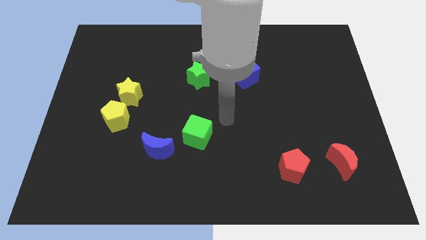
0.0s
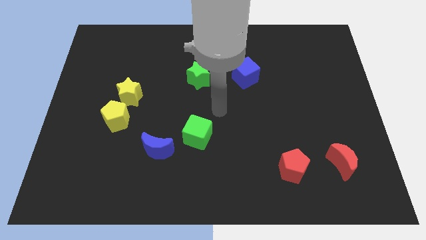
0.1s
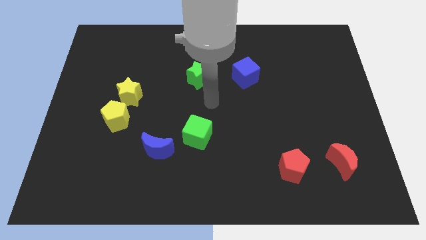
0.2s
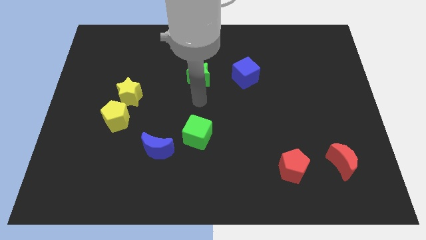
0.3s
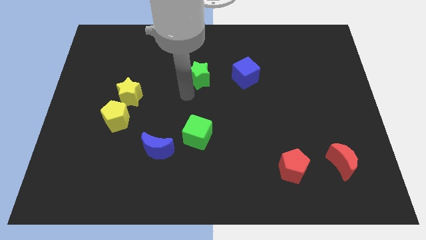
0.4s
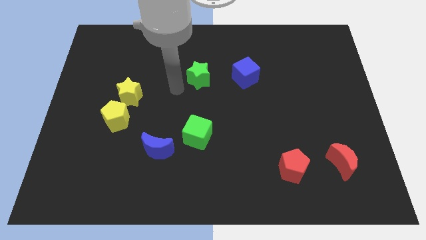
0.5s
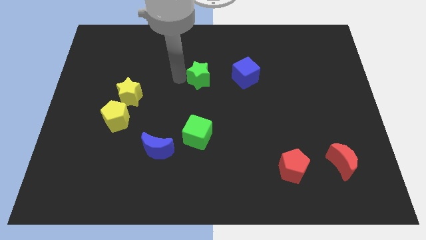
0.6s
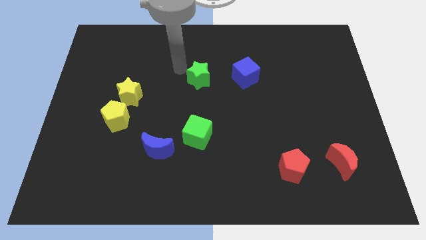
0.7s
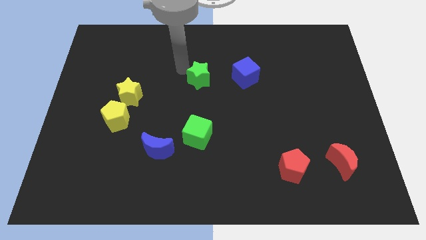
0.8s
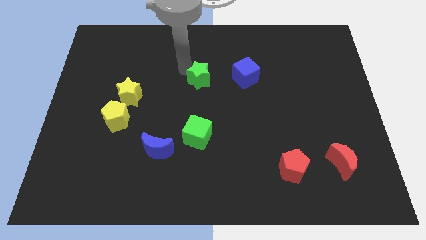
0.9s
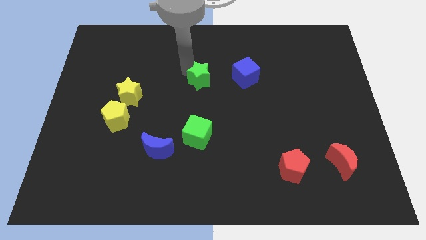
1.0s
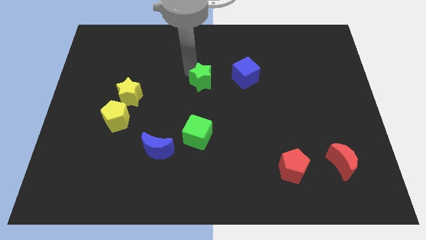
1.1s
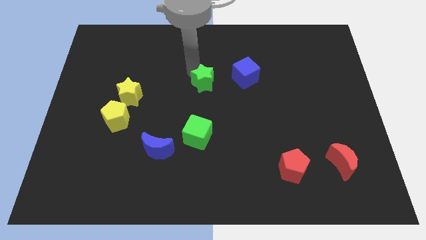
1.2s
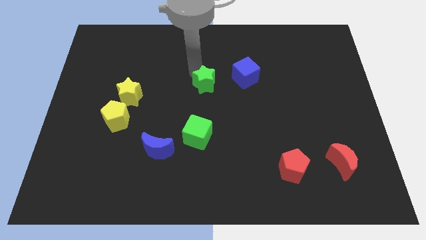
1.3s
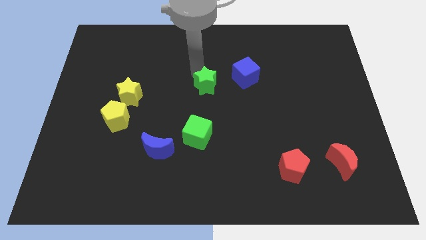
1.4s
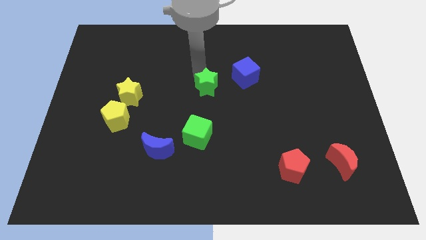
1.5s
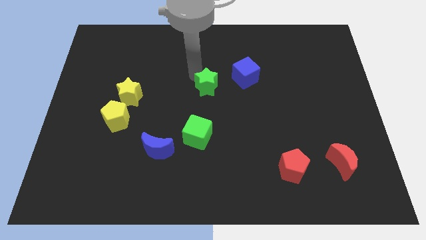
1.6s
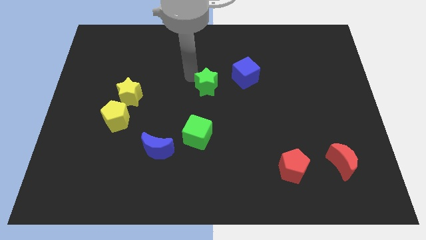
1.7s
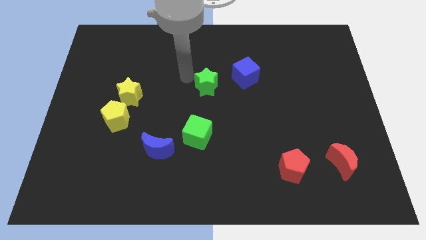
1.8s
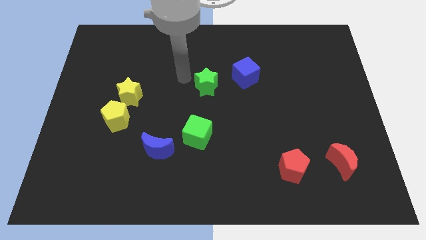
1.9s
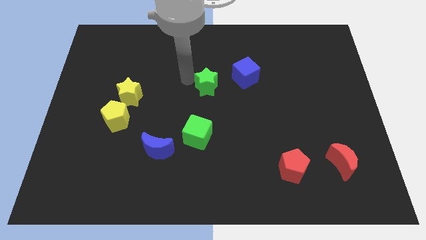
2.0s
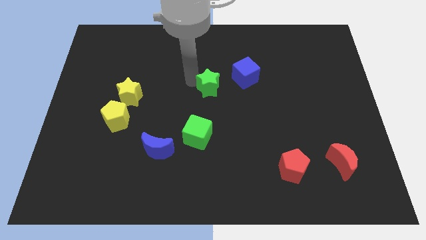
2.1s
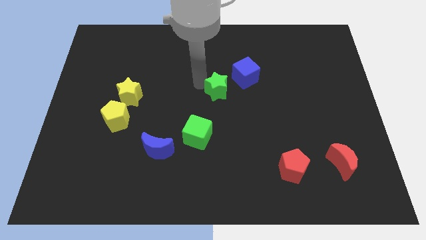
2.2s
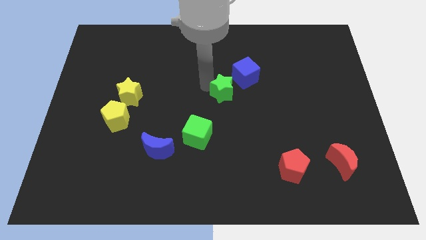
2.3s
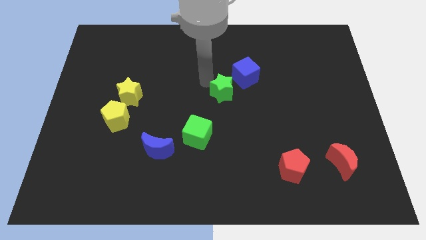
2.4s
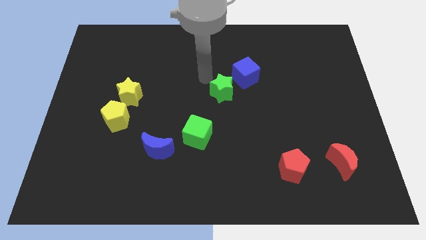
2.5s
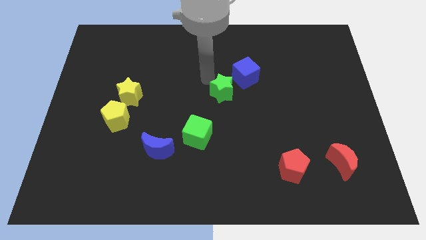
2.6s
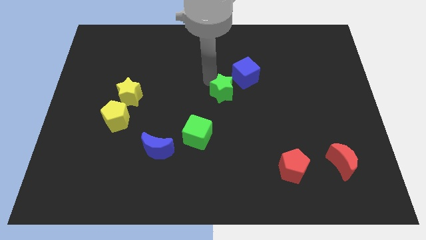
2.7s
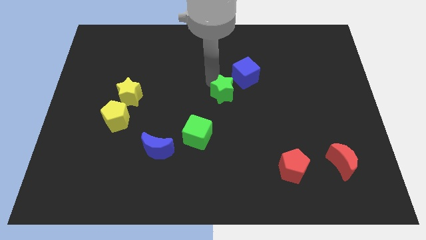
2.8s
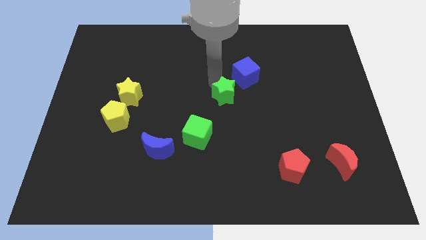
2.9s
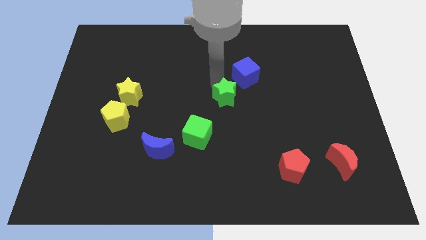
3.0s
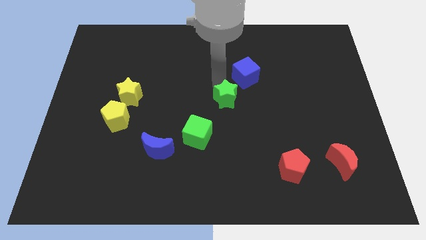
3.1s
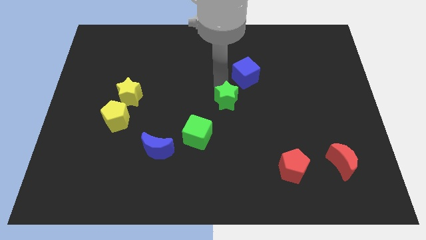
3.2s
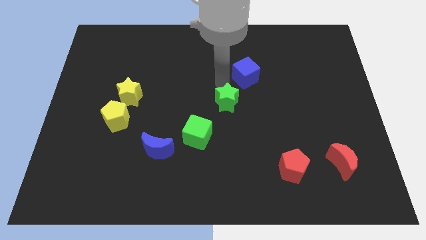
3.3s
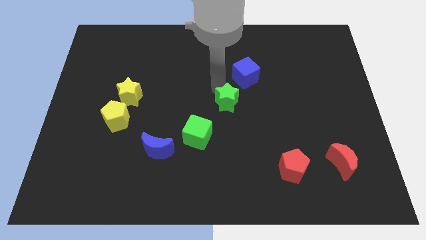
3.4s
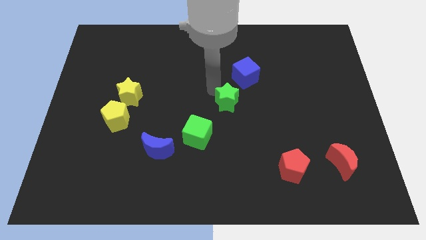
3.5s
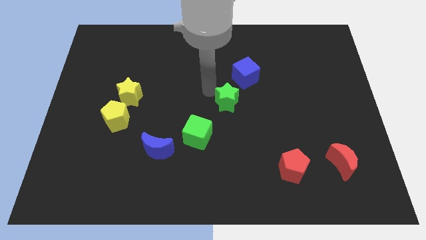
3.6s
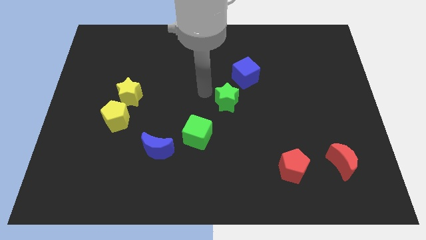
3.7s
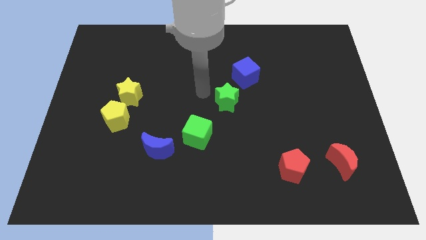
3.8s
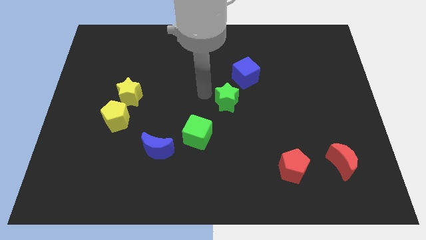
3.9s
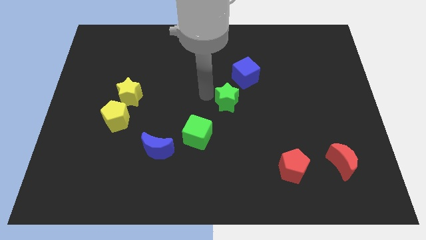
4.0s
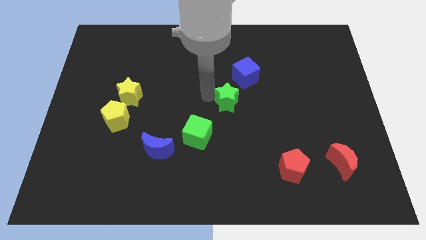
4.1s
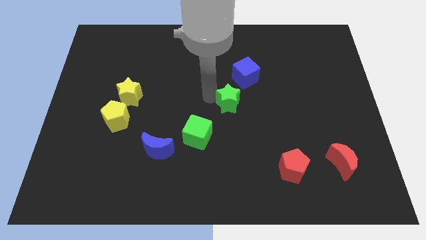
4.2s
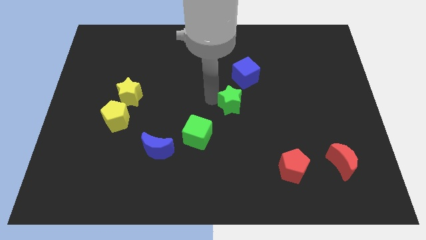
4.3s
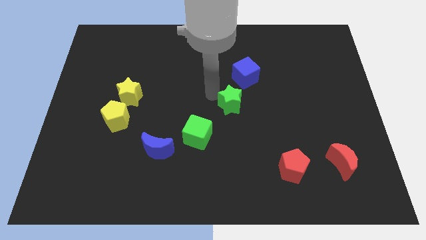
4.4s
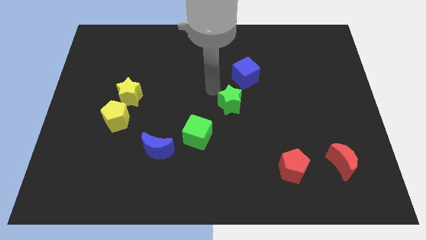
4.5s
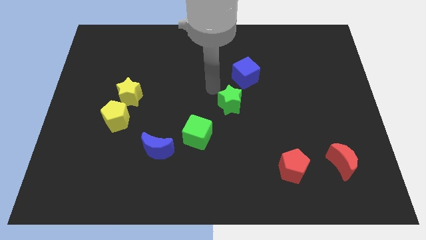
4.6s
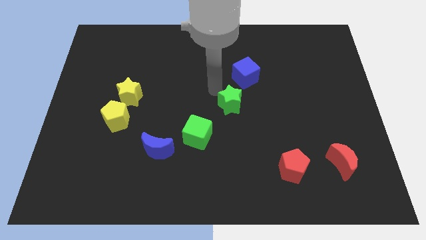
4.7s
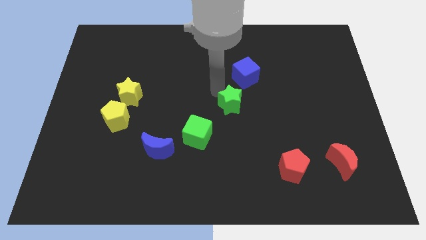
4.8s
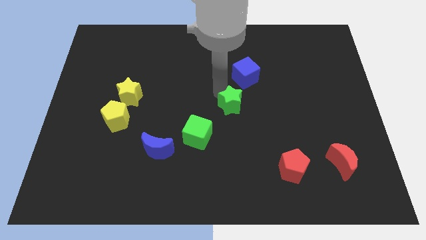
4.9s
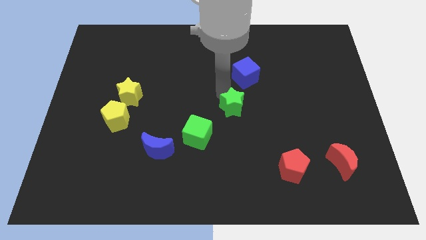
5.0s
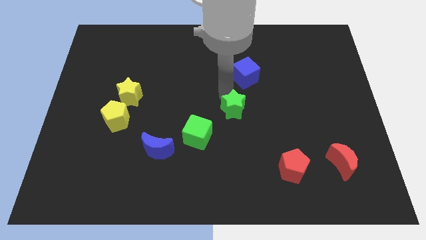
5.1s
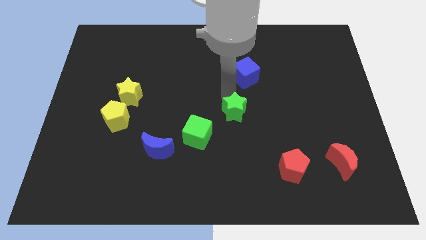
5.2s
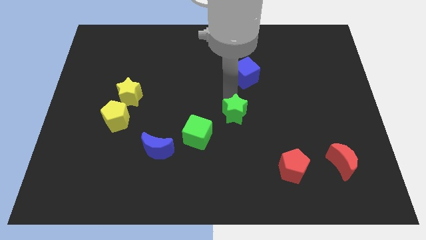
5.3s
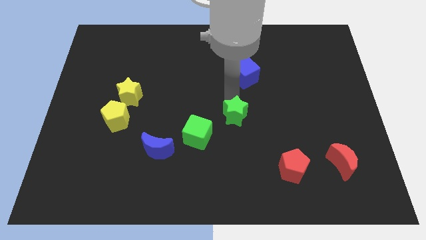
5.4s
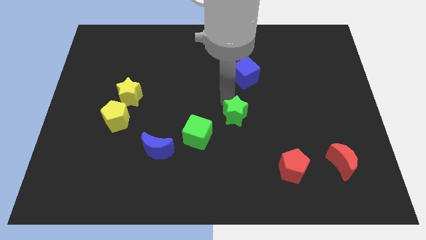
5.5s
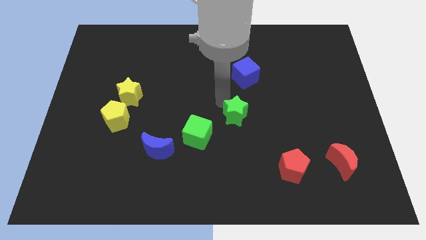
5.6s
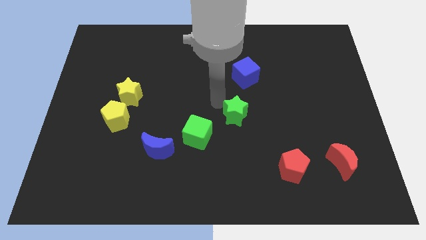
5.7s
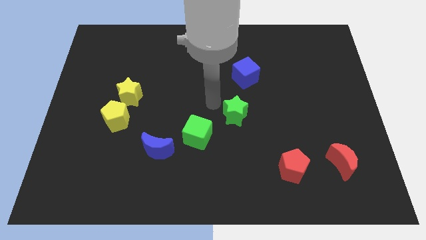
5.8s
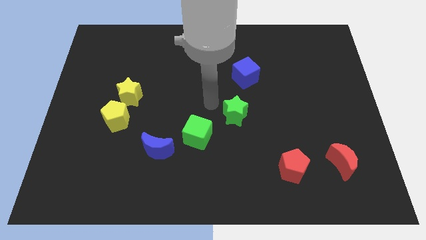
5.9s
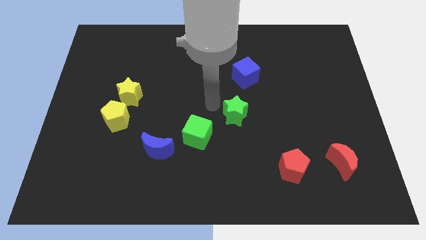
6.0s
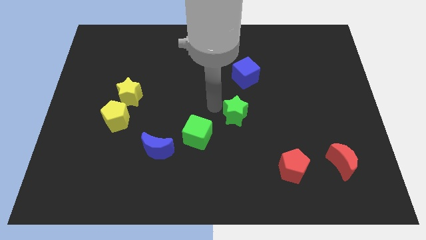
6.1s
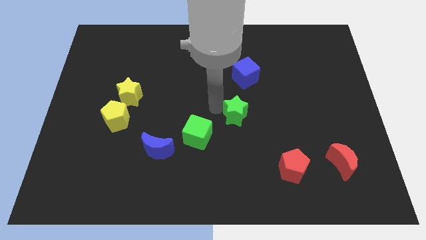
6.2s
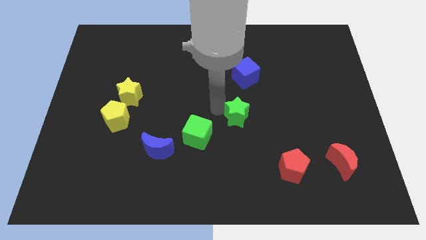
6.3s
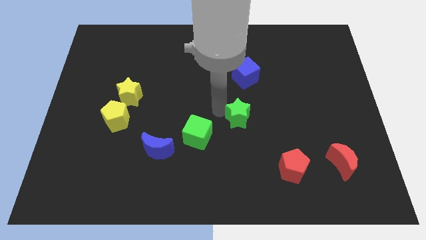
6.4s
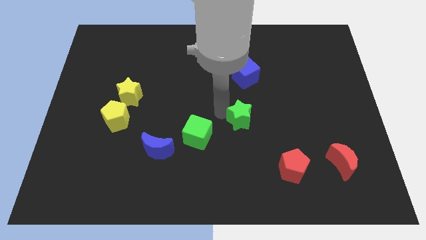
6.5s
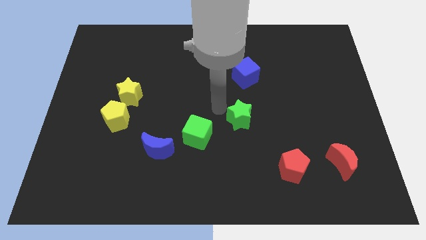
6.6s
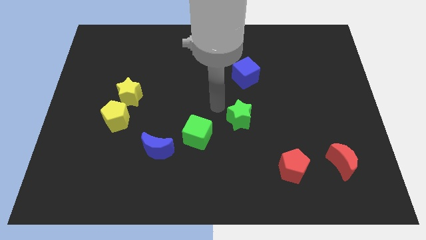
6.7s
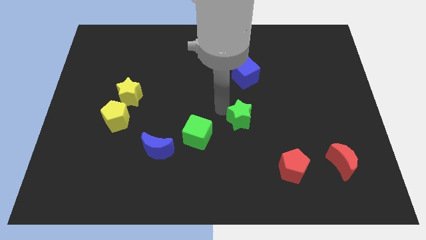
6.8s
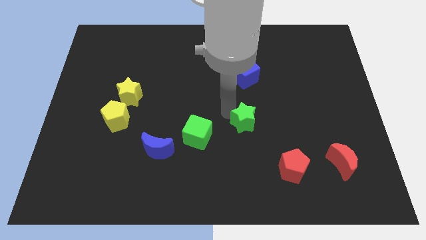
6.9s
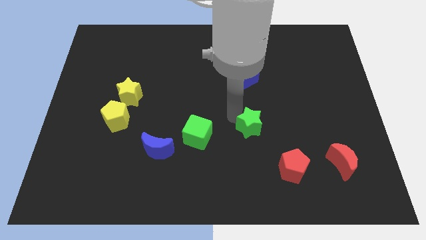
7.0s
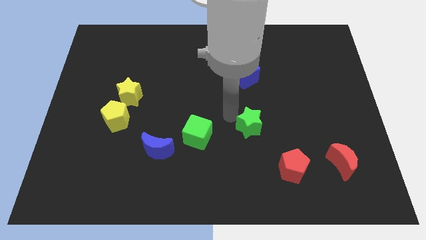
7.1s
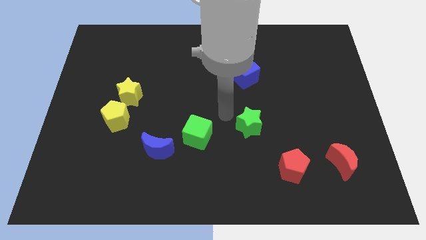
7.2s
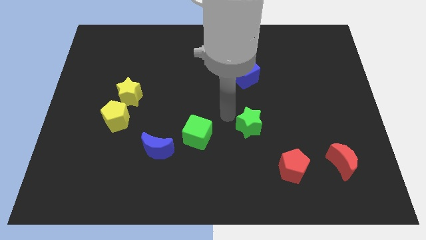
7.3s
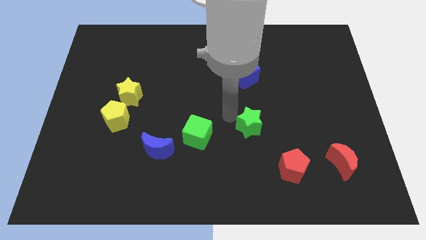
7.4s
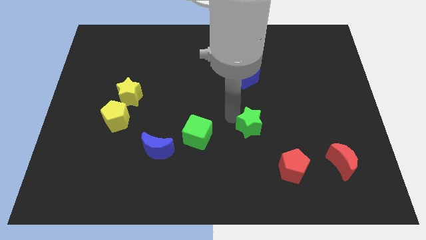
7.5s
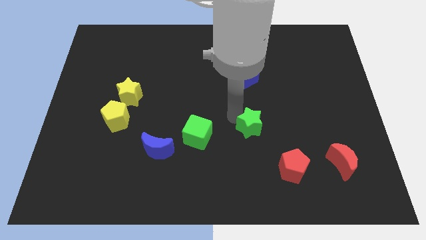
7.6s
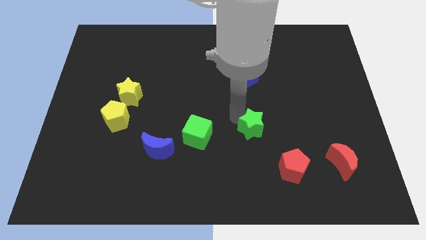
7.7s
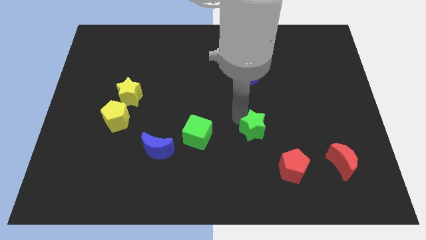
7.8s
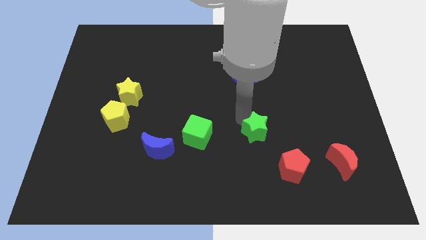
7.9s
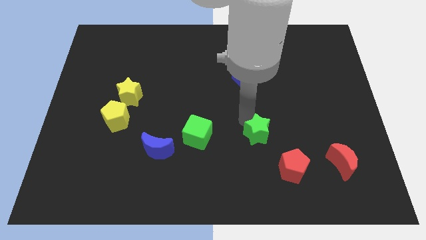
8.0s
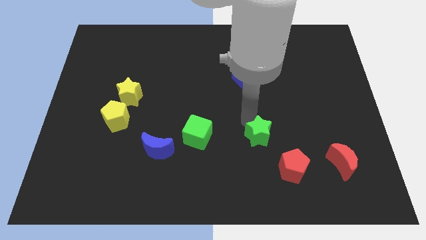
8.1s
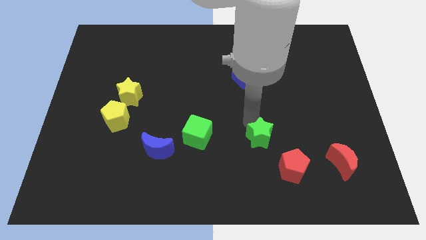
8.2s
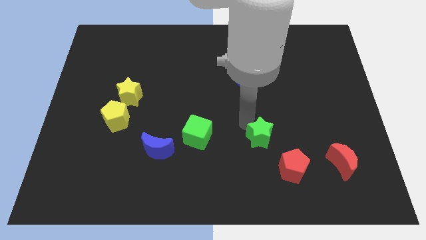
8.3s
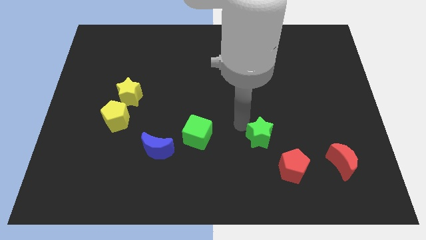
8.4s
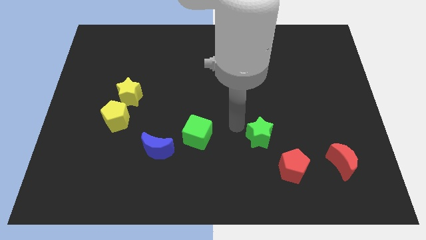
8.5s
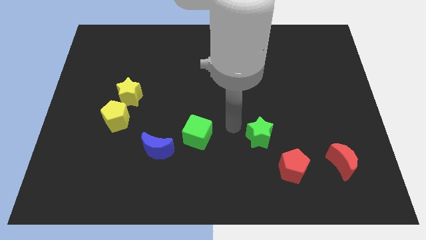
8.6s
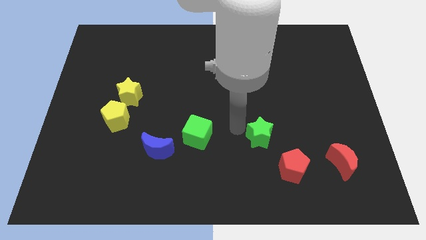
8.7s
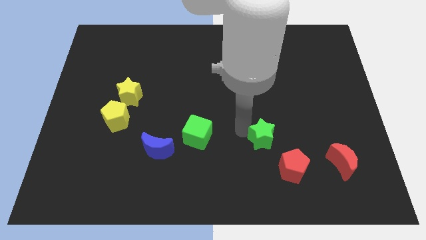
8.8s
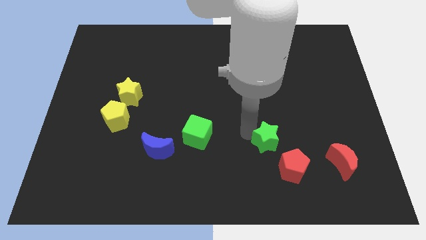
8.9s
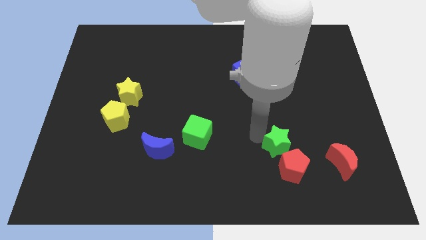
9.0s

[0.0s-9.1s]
push the green star to the red pentagon
